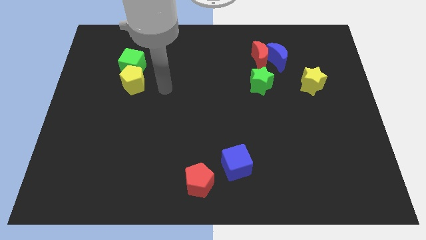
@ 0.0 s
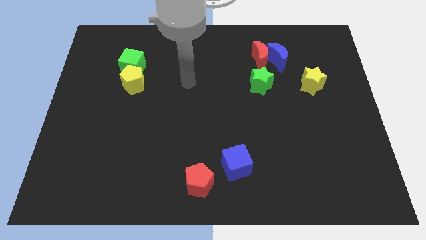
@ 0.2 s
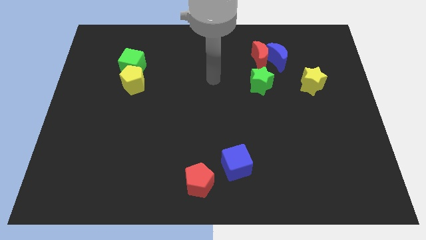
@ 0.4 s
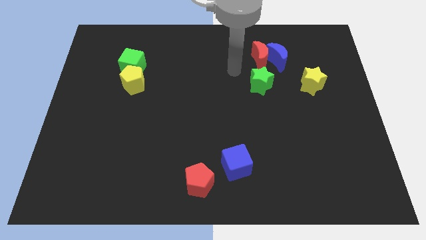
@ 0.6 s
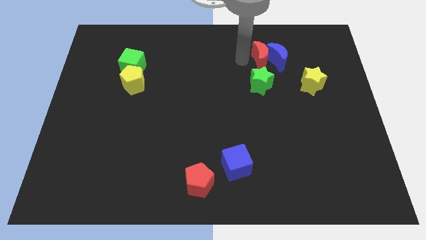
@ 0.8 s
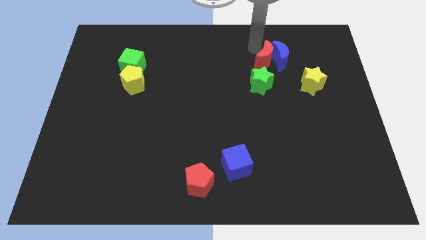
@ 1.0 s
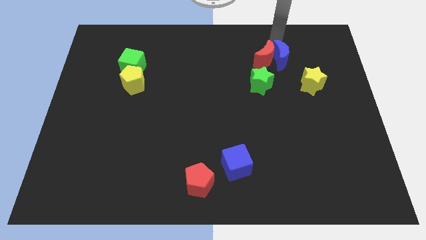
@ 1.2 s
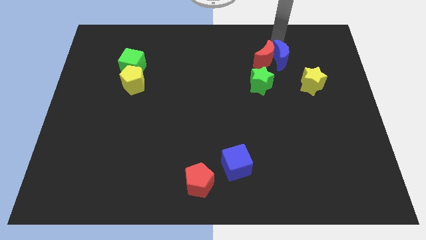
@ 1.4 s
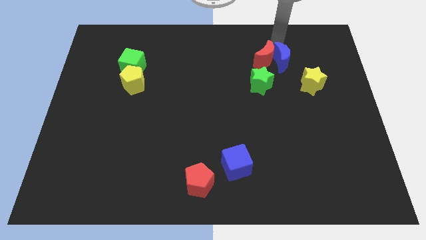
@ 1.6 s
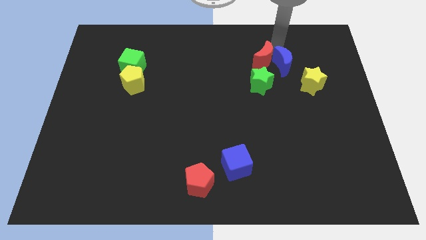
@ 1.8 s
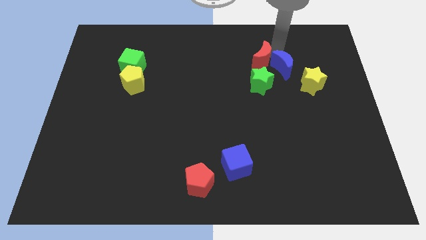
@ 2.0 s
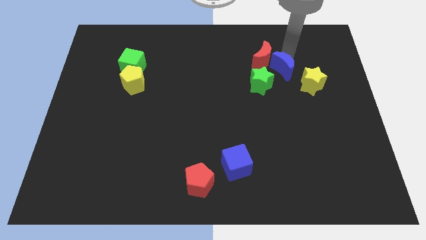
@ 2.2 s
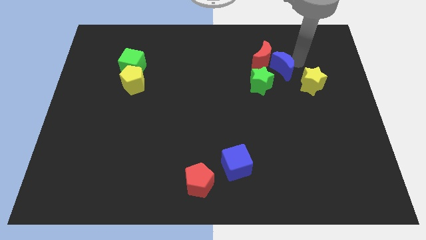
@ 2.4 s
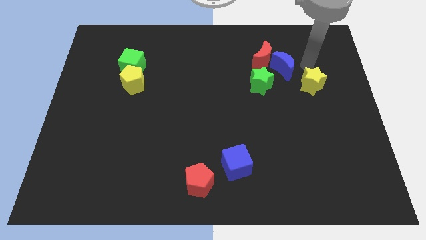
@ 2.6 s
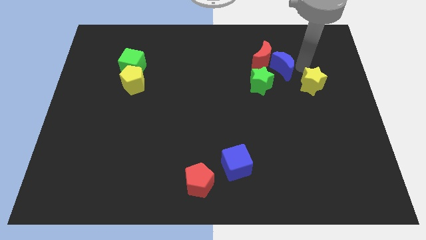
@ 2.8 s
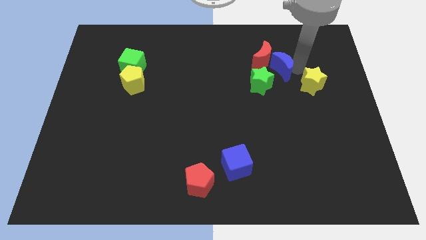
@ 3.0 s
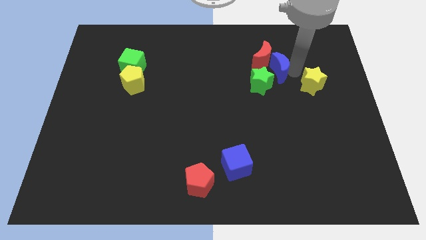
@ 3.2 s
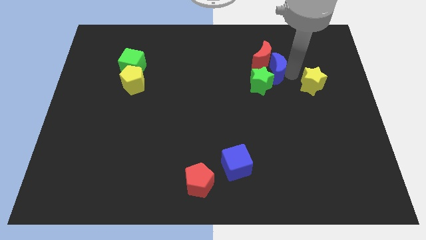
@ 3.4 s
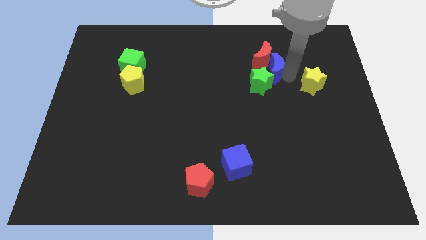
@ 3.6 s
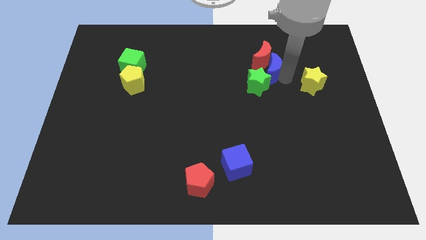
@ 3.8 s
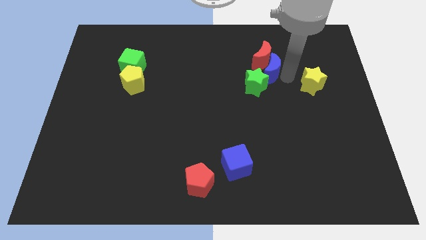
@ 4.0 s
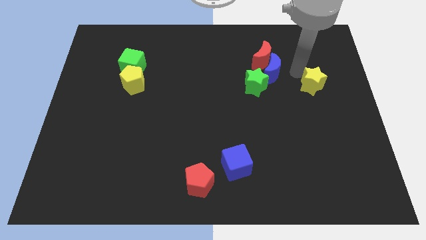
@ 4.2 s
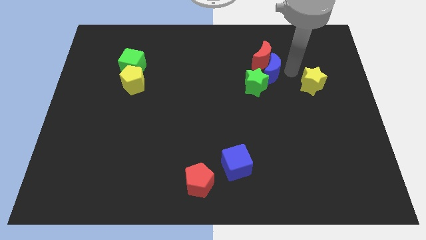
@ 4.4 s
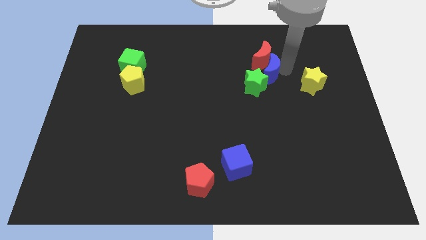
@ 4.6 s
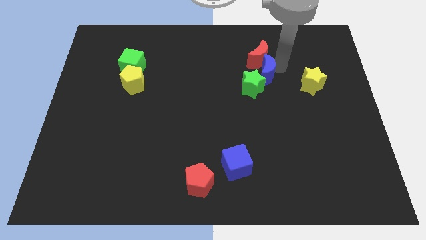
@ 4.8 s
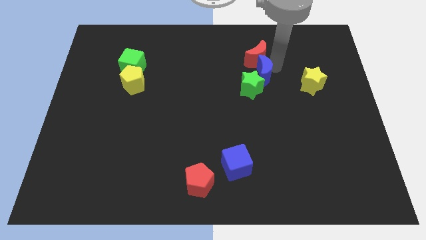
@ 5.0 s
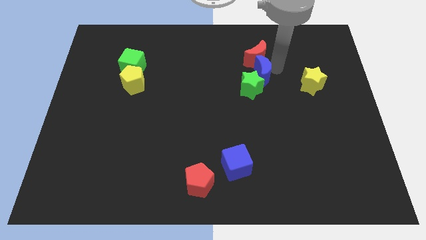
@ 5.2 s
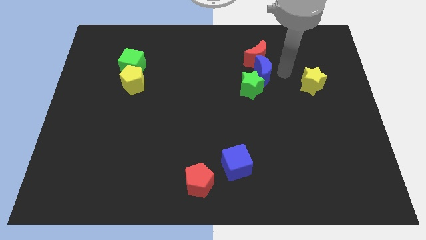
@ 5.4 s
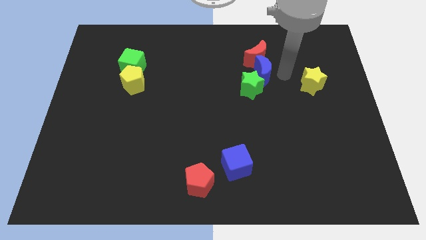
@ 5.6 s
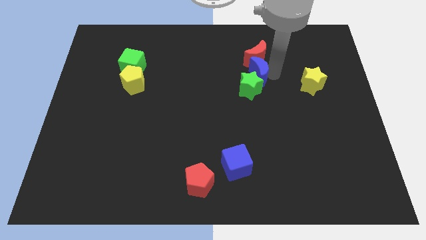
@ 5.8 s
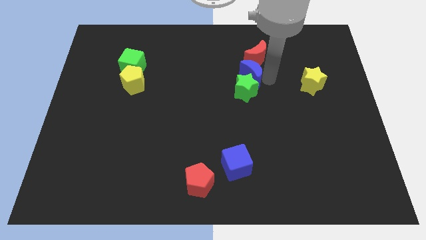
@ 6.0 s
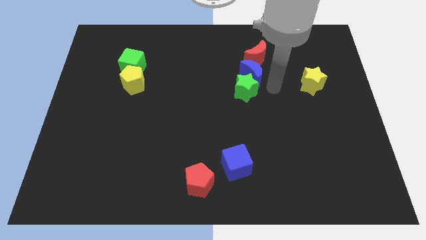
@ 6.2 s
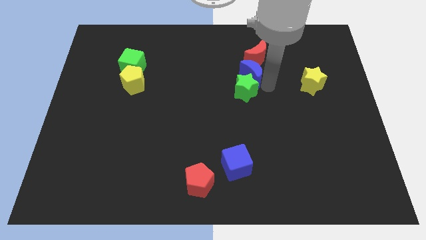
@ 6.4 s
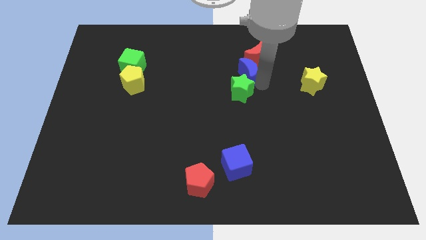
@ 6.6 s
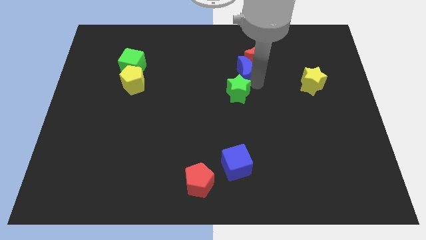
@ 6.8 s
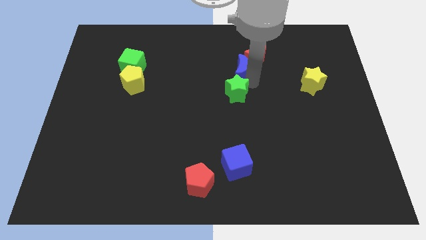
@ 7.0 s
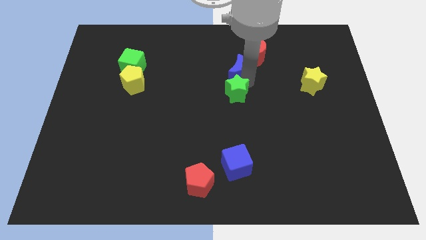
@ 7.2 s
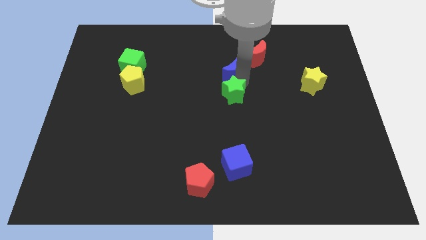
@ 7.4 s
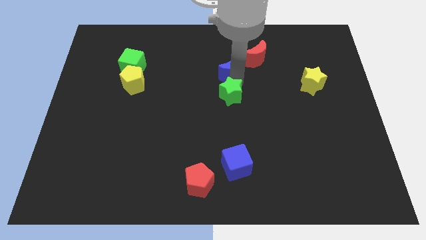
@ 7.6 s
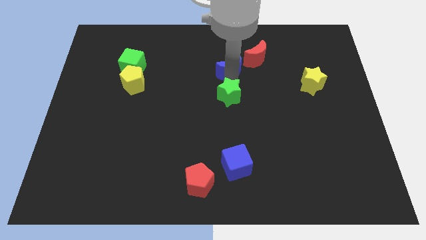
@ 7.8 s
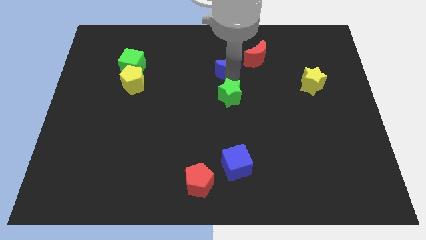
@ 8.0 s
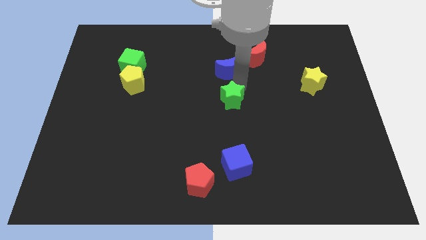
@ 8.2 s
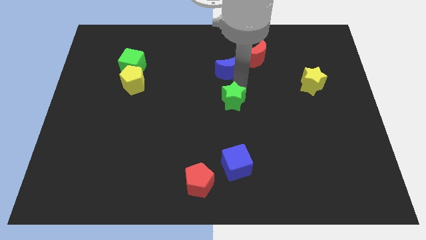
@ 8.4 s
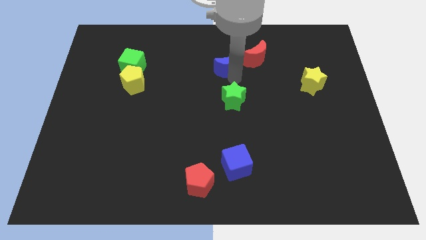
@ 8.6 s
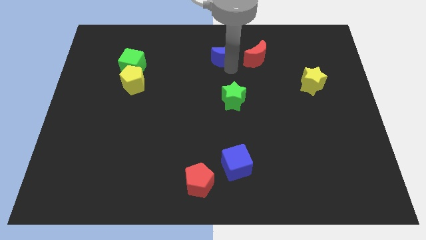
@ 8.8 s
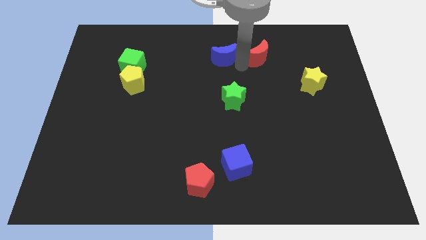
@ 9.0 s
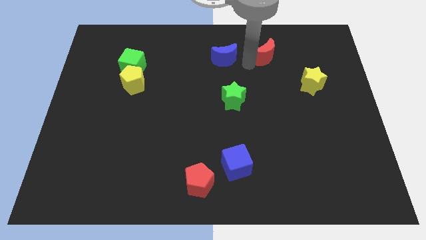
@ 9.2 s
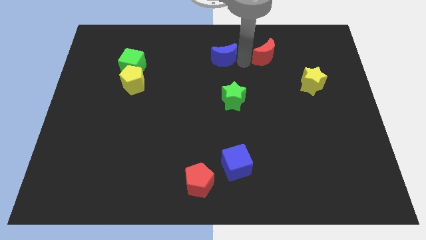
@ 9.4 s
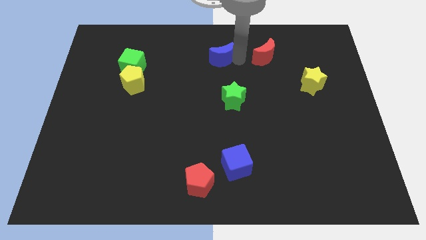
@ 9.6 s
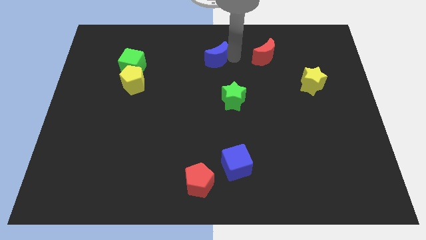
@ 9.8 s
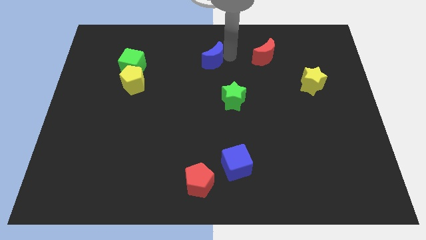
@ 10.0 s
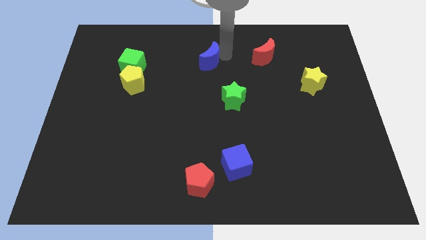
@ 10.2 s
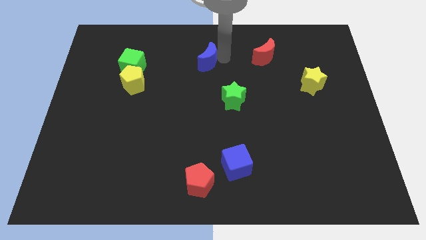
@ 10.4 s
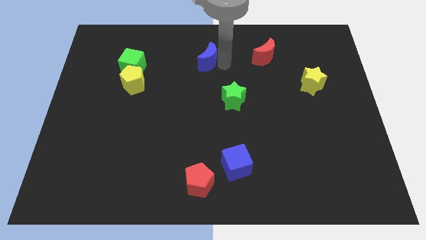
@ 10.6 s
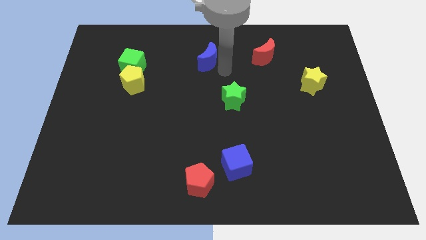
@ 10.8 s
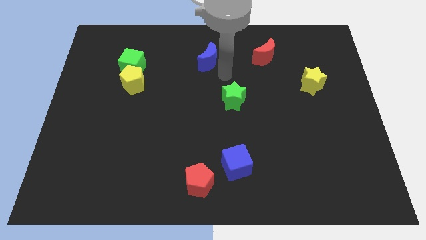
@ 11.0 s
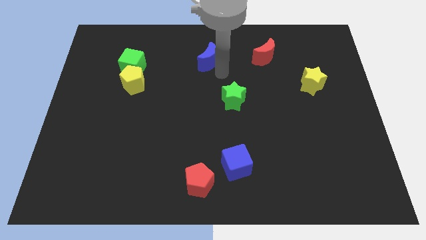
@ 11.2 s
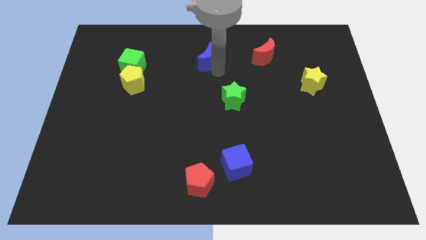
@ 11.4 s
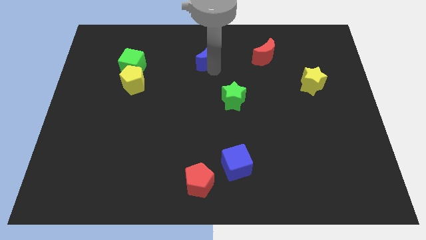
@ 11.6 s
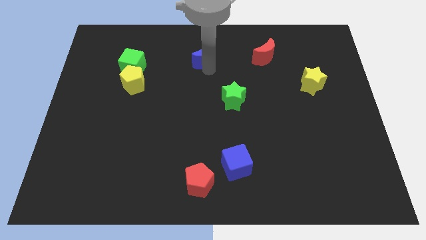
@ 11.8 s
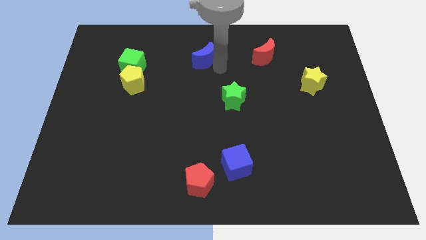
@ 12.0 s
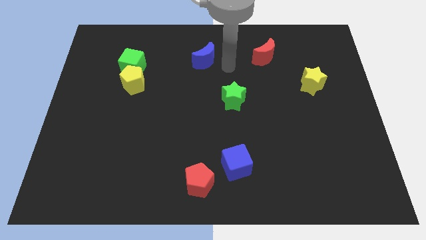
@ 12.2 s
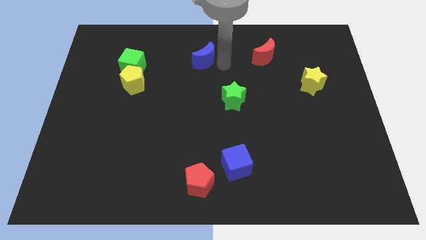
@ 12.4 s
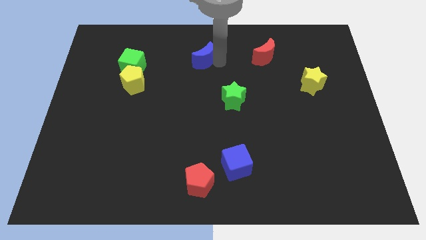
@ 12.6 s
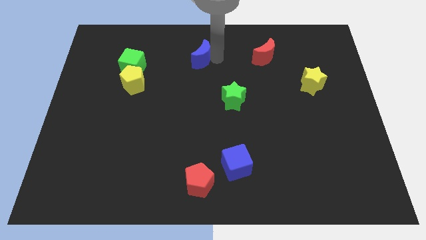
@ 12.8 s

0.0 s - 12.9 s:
push the blue moon to the left

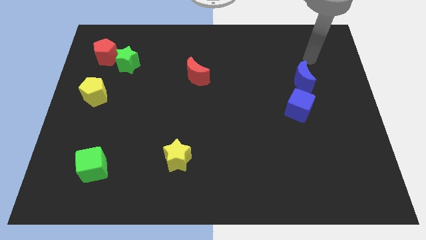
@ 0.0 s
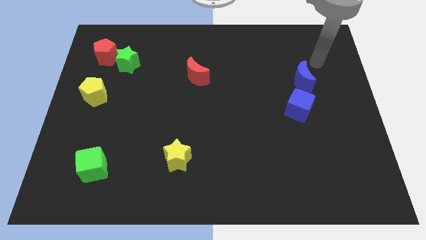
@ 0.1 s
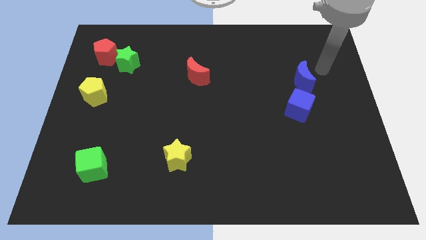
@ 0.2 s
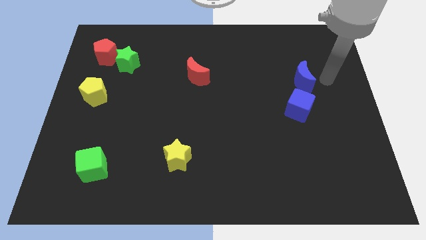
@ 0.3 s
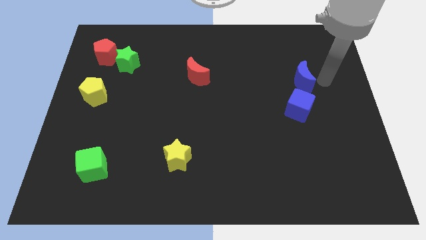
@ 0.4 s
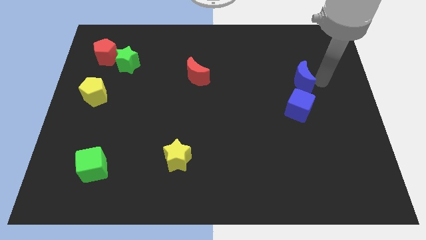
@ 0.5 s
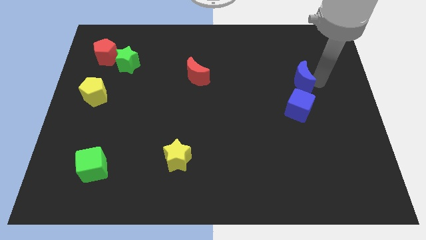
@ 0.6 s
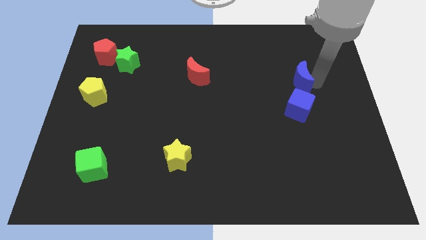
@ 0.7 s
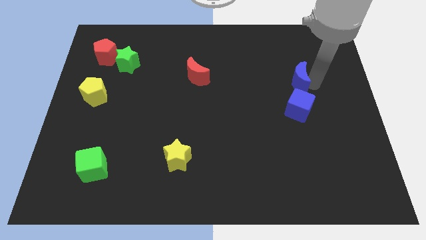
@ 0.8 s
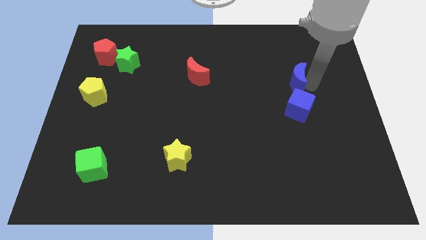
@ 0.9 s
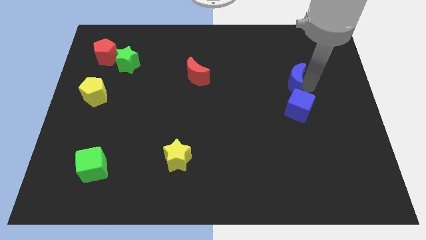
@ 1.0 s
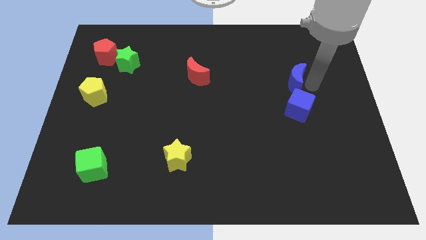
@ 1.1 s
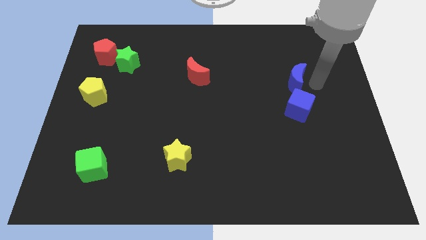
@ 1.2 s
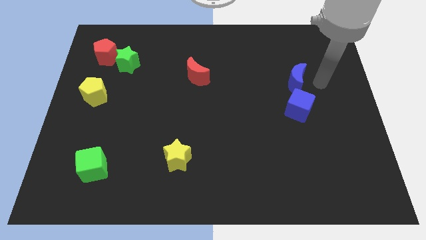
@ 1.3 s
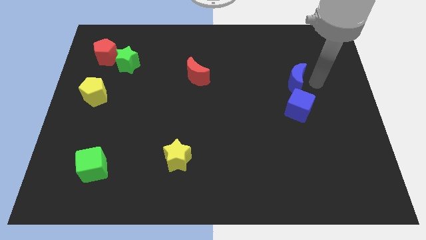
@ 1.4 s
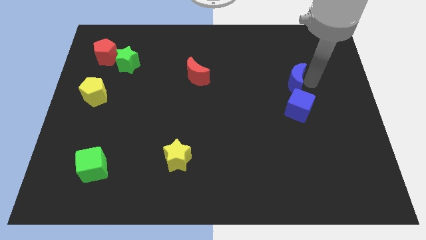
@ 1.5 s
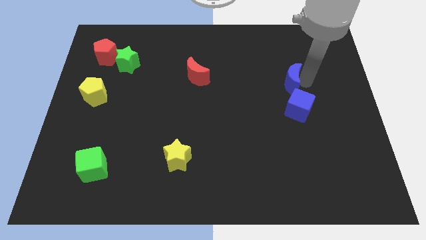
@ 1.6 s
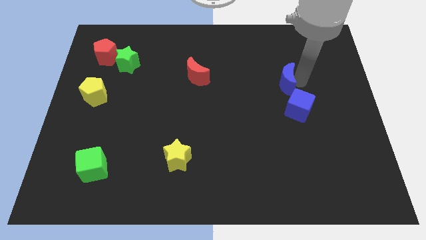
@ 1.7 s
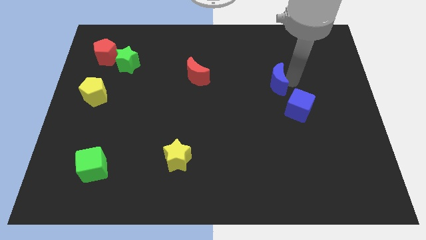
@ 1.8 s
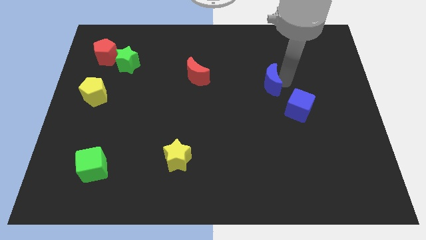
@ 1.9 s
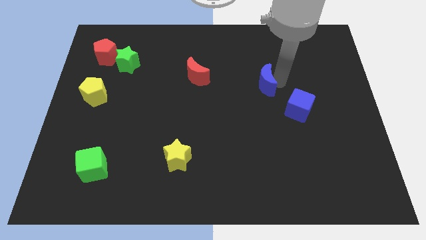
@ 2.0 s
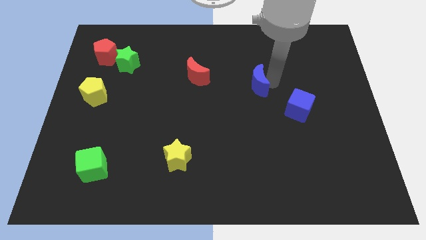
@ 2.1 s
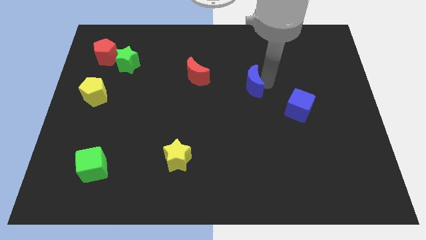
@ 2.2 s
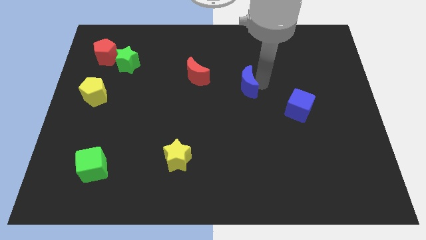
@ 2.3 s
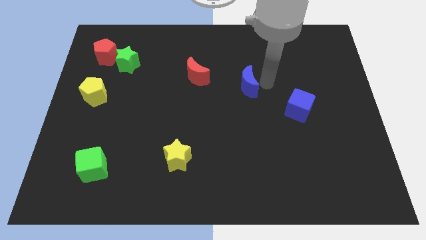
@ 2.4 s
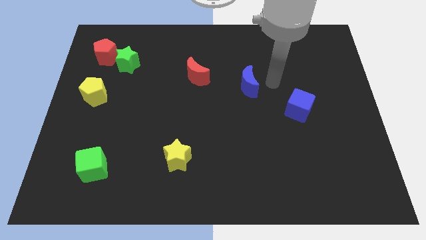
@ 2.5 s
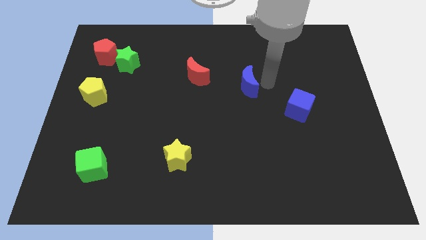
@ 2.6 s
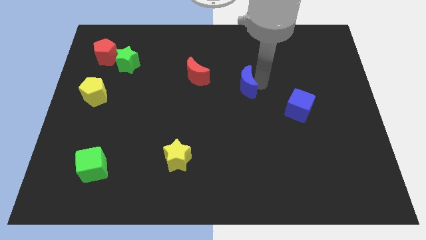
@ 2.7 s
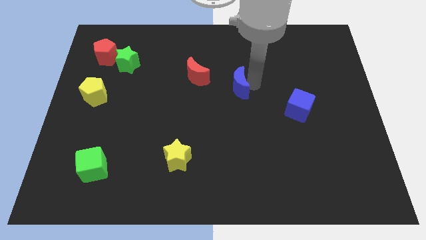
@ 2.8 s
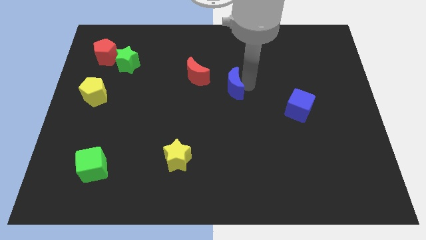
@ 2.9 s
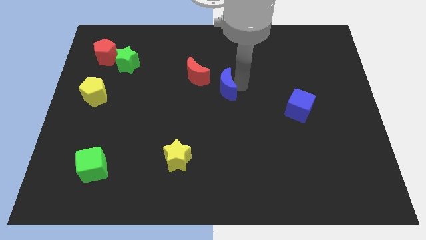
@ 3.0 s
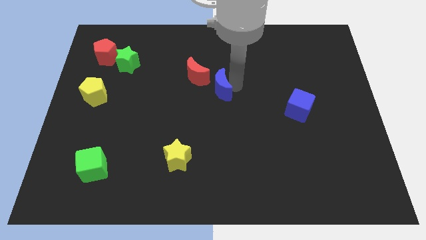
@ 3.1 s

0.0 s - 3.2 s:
push the blue moon left
